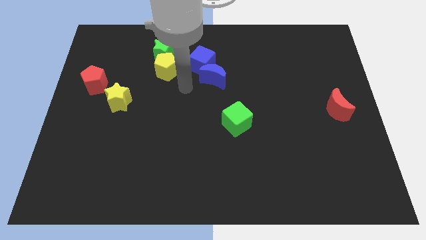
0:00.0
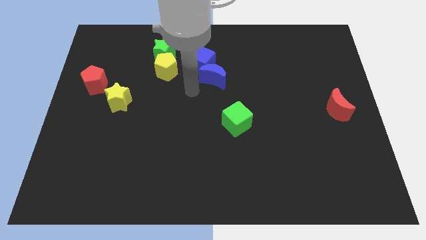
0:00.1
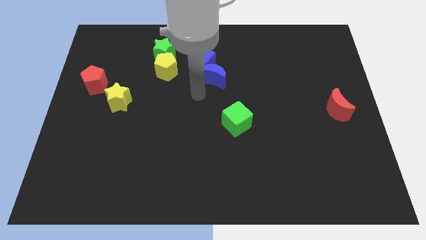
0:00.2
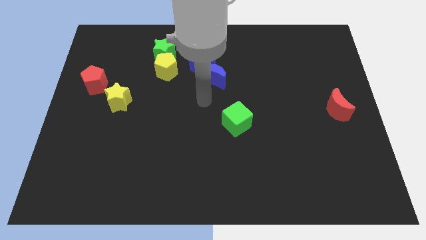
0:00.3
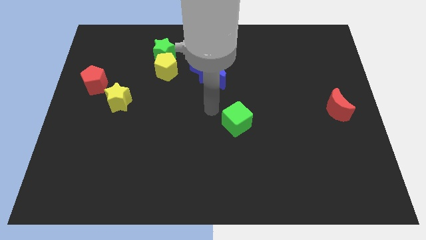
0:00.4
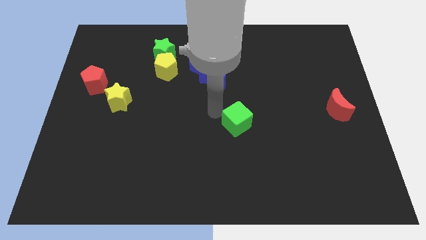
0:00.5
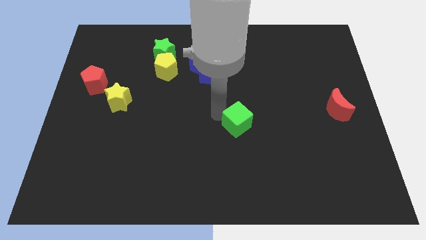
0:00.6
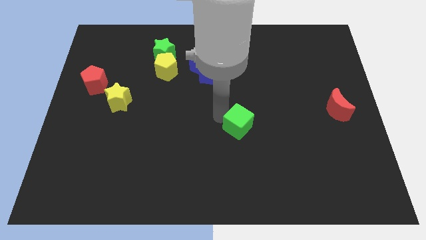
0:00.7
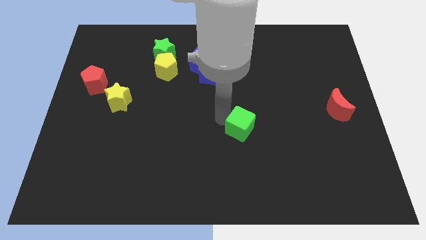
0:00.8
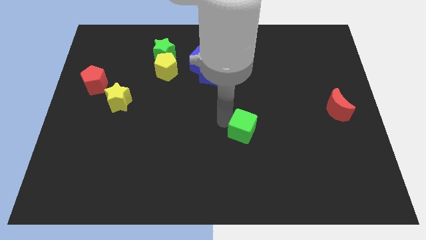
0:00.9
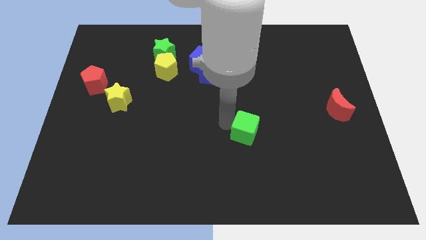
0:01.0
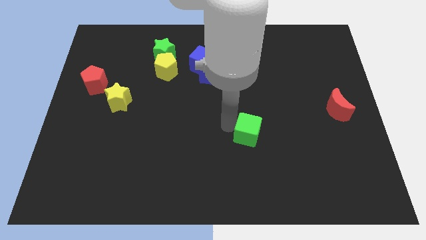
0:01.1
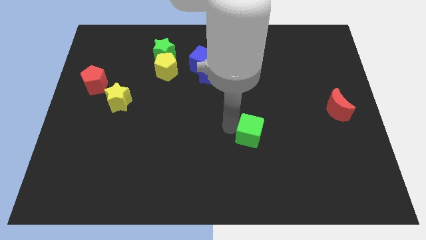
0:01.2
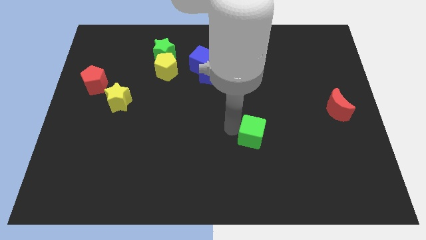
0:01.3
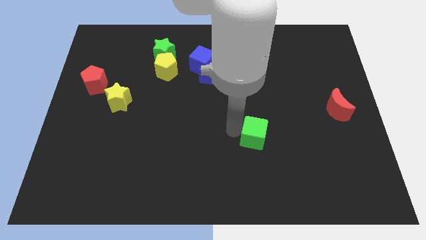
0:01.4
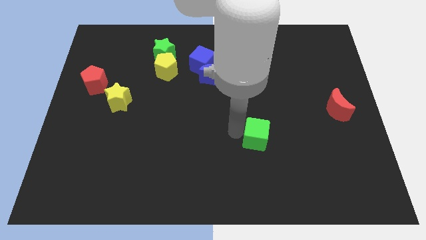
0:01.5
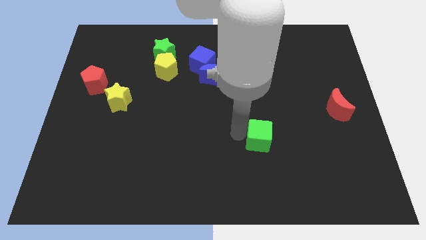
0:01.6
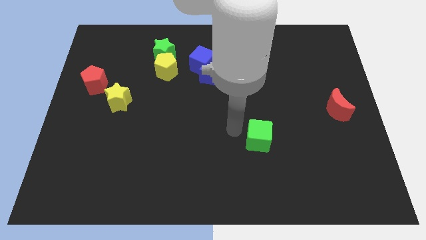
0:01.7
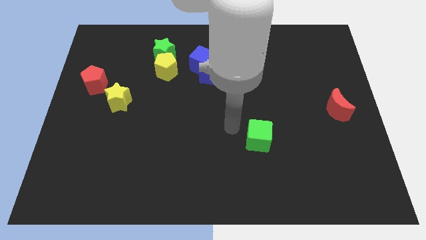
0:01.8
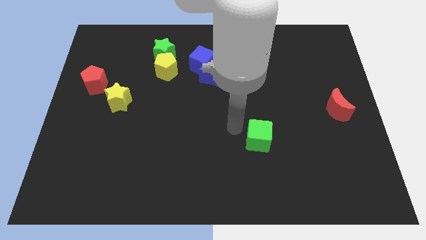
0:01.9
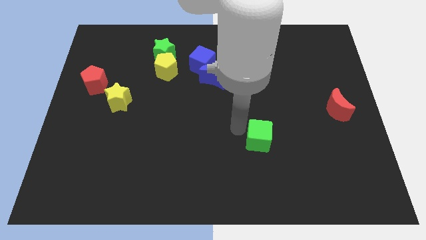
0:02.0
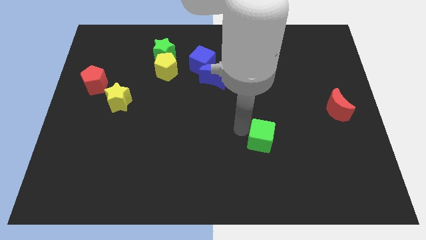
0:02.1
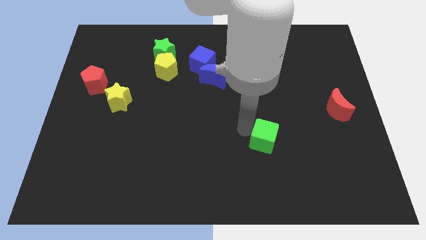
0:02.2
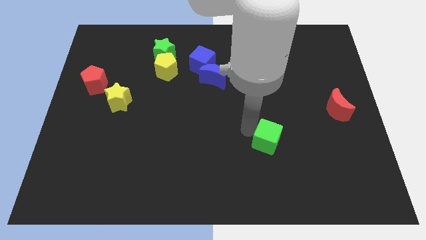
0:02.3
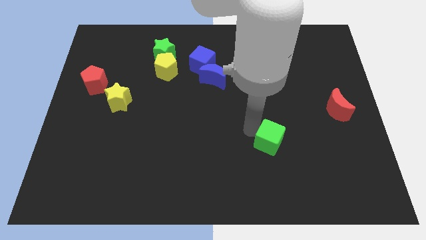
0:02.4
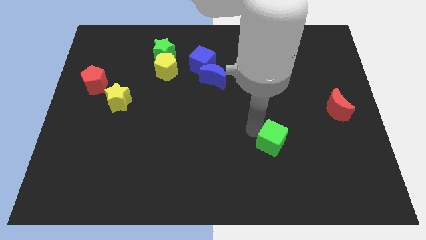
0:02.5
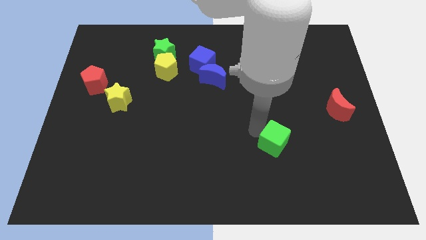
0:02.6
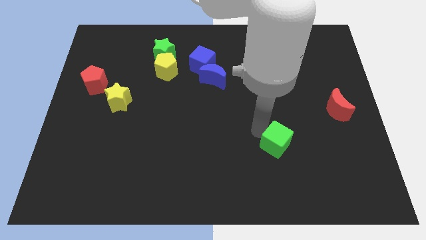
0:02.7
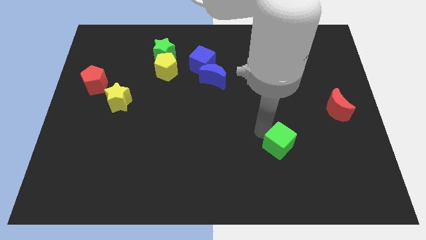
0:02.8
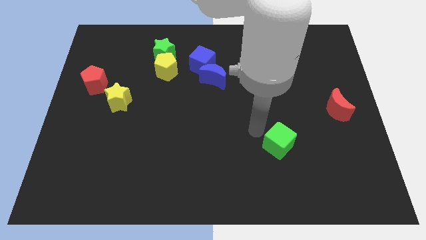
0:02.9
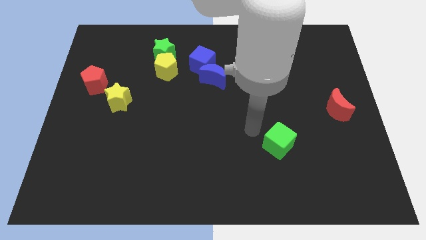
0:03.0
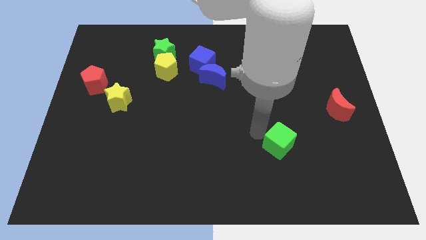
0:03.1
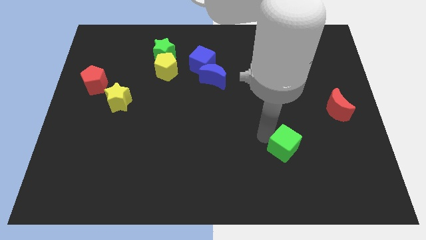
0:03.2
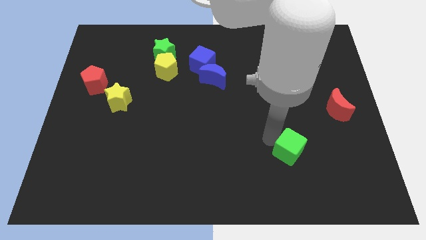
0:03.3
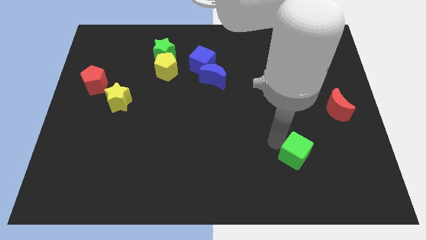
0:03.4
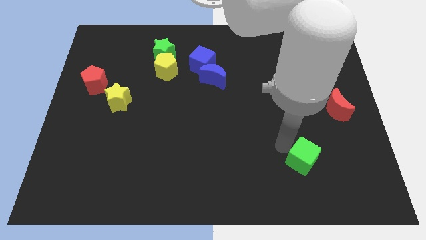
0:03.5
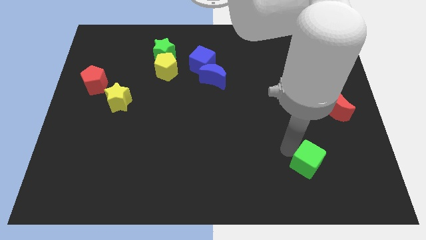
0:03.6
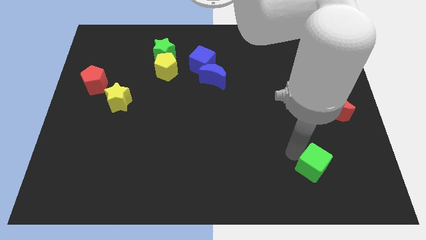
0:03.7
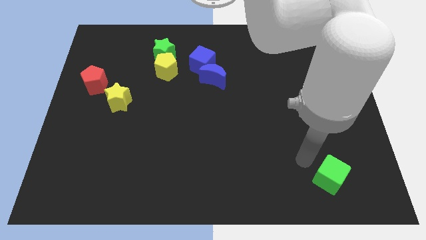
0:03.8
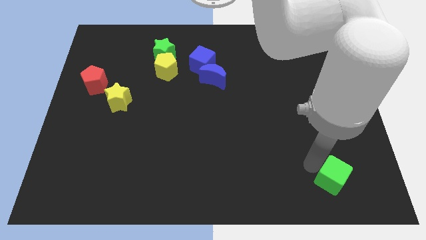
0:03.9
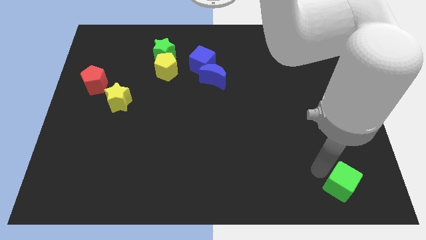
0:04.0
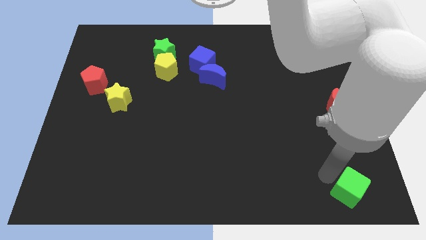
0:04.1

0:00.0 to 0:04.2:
slide the green cube to the bottom right of the board

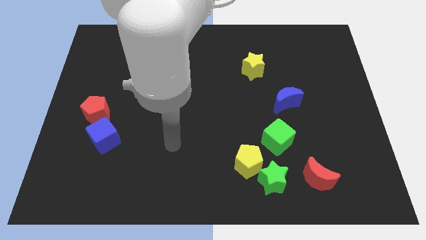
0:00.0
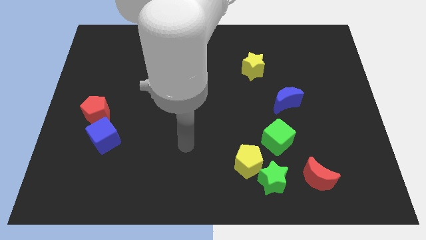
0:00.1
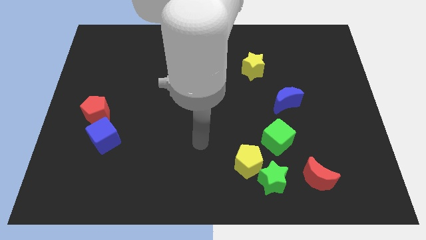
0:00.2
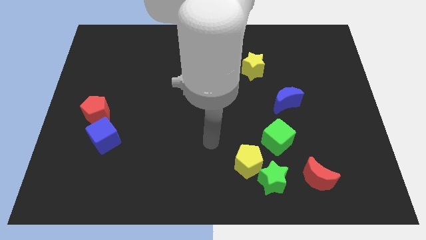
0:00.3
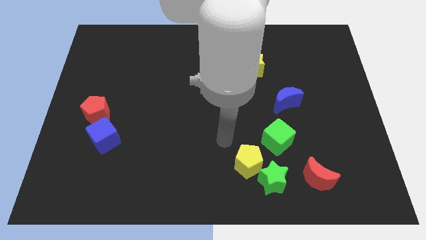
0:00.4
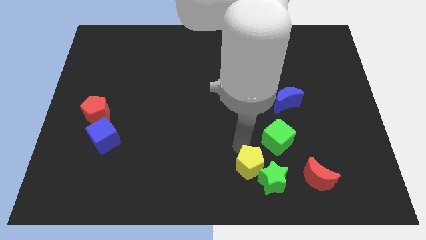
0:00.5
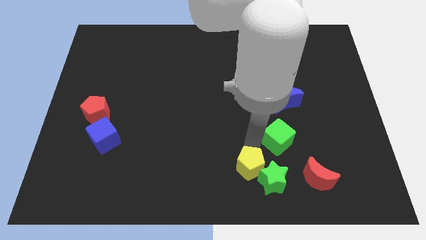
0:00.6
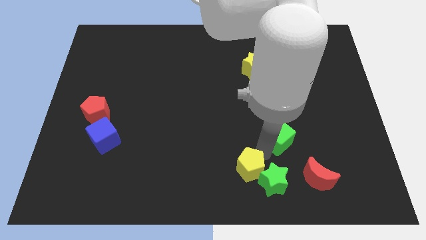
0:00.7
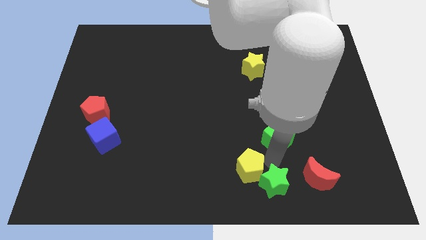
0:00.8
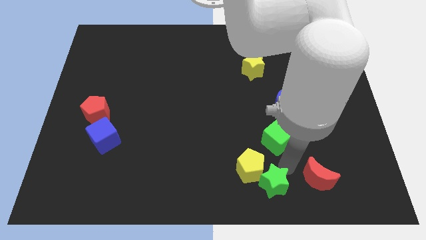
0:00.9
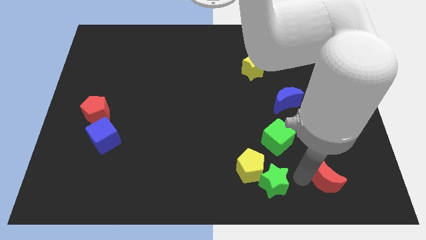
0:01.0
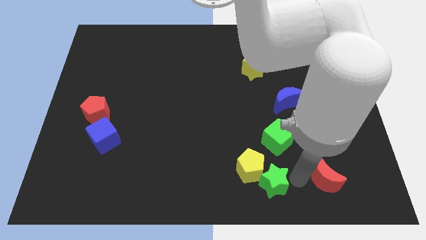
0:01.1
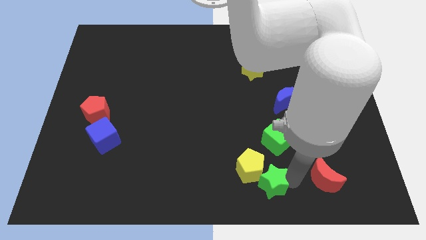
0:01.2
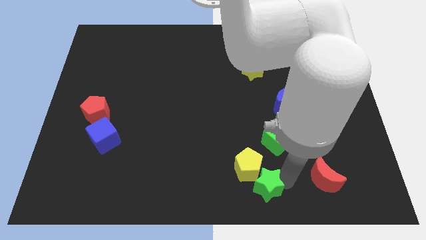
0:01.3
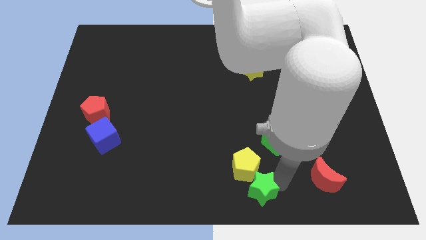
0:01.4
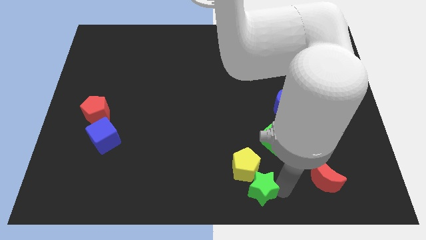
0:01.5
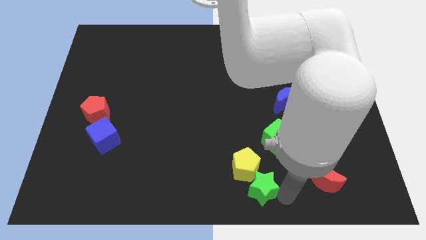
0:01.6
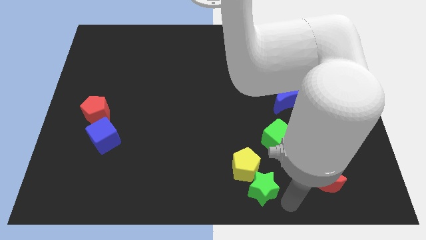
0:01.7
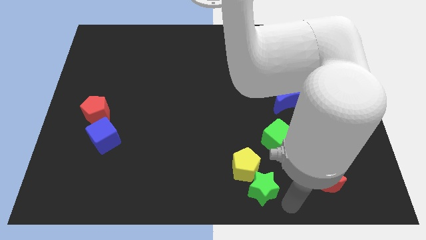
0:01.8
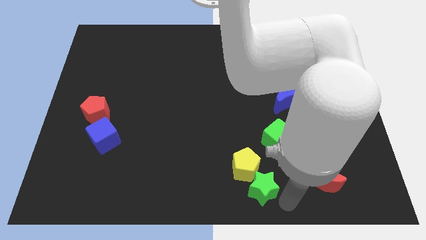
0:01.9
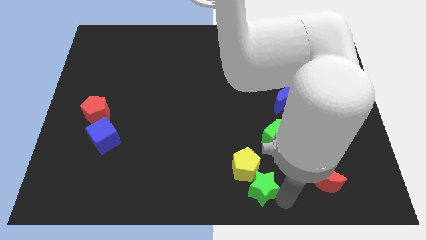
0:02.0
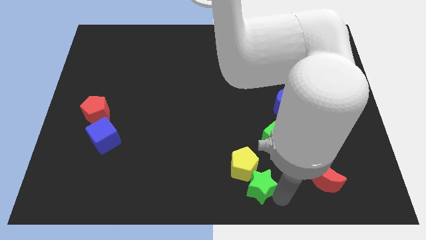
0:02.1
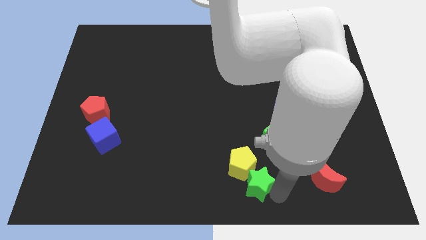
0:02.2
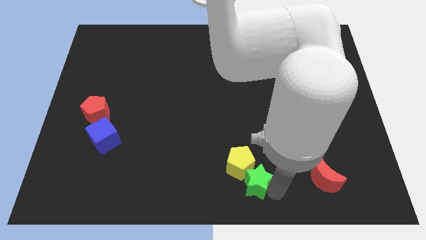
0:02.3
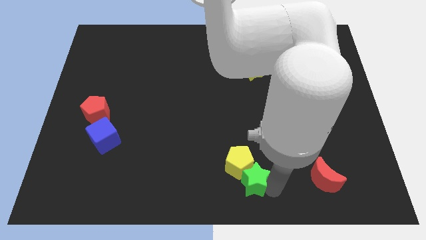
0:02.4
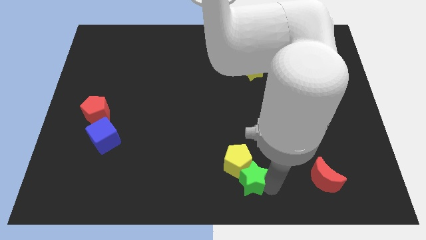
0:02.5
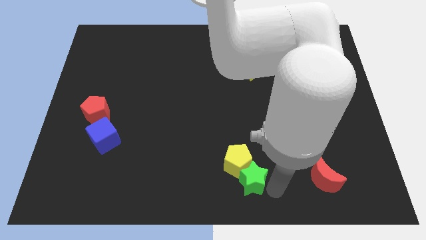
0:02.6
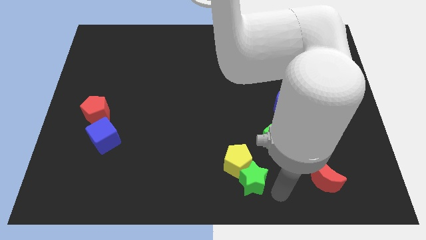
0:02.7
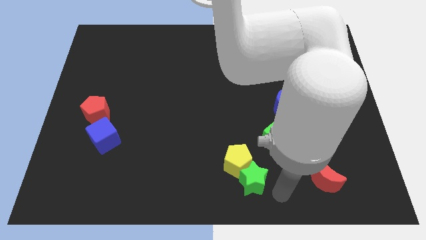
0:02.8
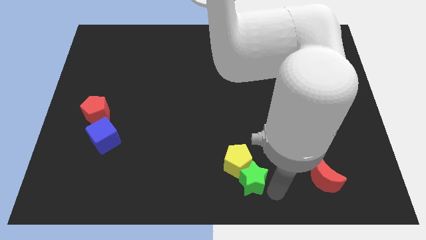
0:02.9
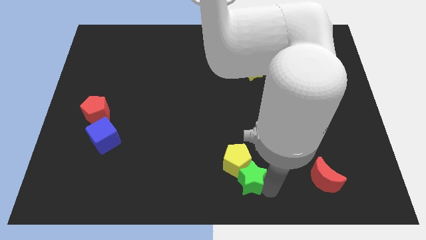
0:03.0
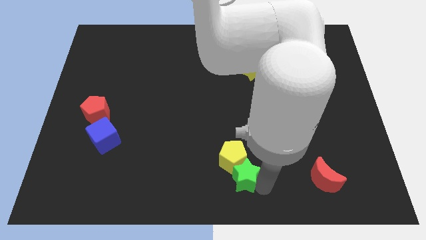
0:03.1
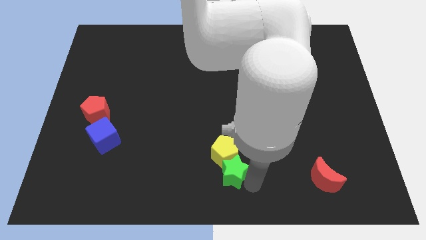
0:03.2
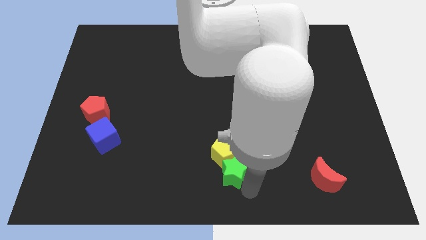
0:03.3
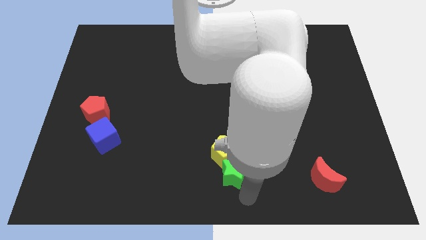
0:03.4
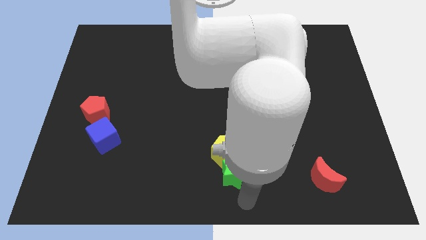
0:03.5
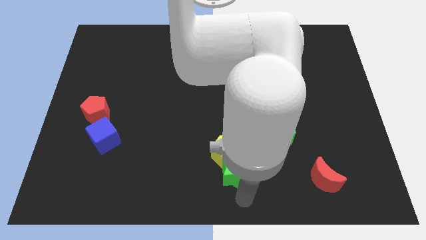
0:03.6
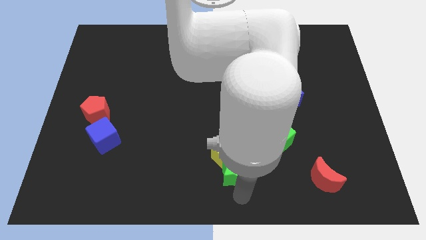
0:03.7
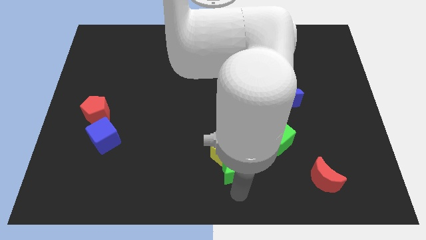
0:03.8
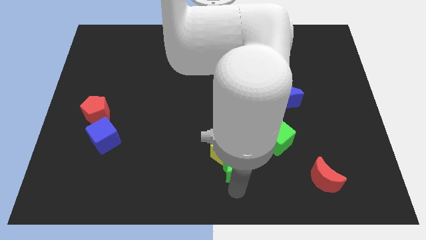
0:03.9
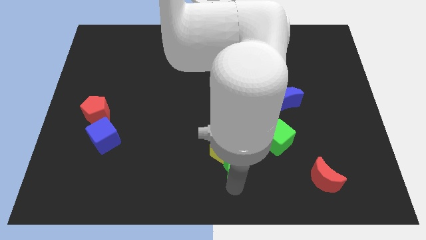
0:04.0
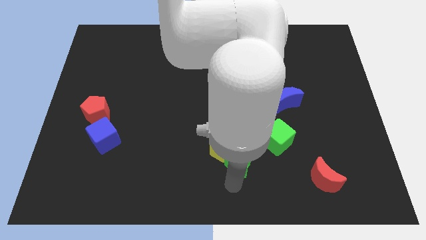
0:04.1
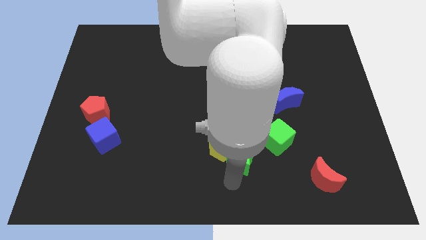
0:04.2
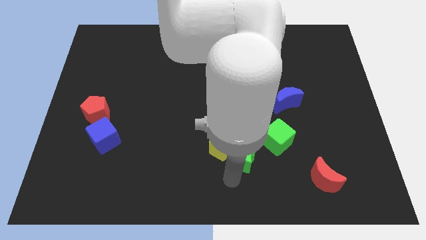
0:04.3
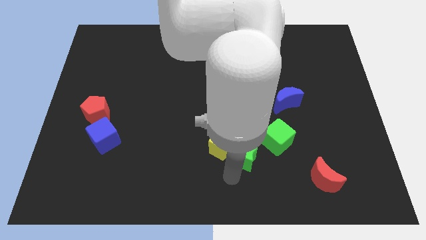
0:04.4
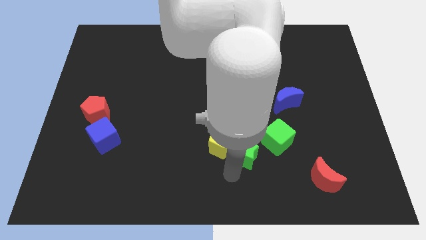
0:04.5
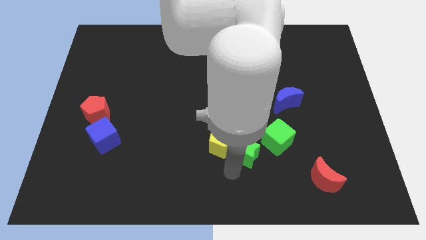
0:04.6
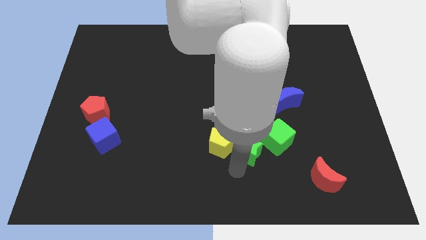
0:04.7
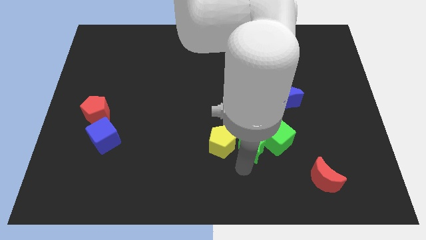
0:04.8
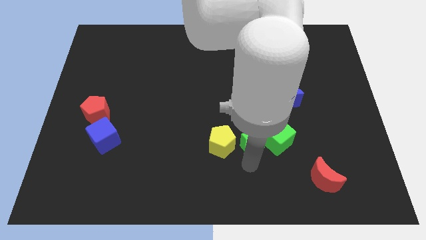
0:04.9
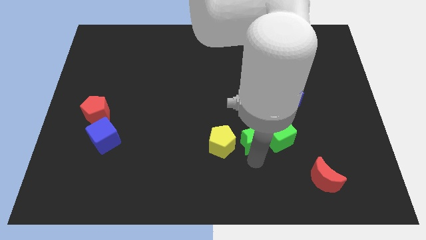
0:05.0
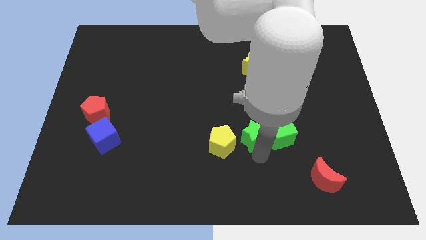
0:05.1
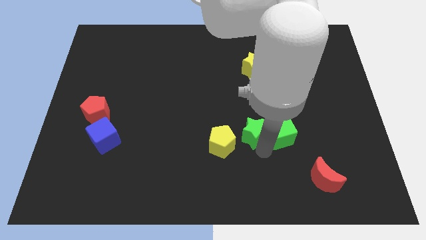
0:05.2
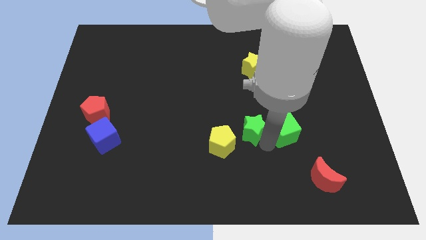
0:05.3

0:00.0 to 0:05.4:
move the green star to the center
